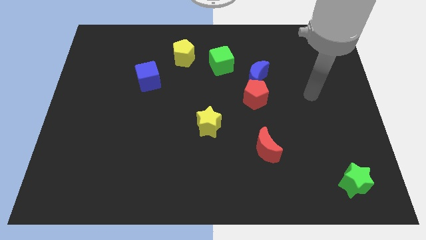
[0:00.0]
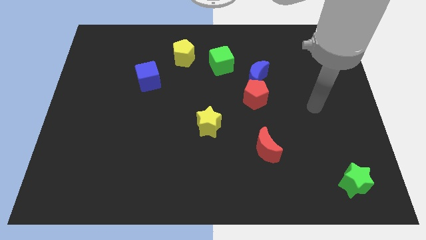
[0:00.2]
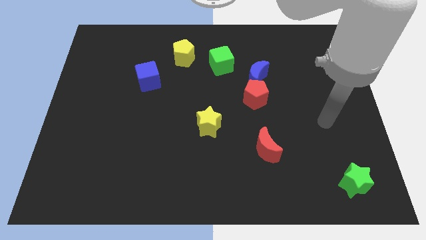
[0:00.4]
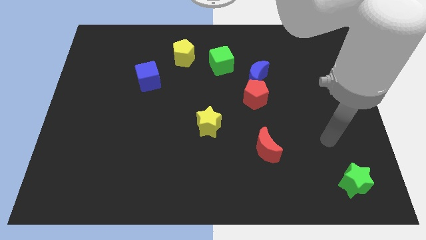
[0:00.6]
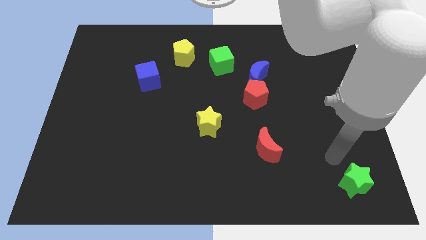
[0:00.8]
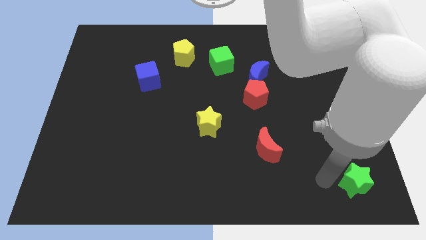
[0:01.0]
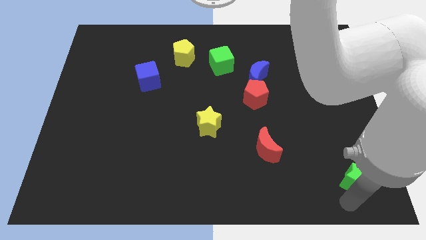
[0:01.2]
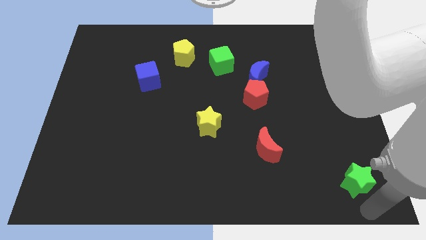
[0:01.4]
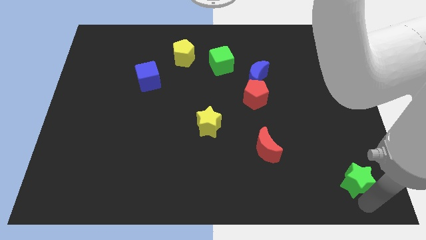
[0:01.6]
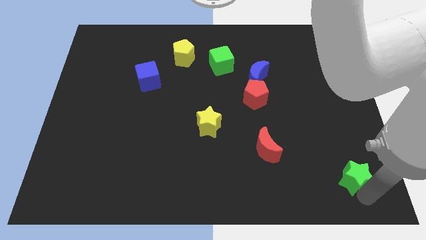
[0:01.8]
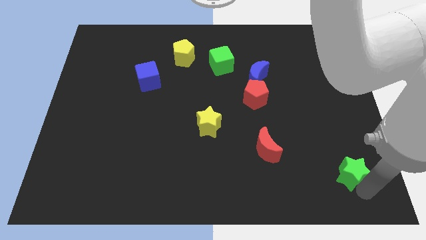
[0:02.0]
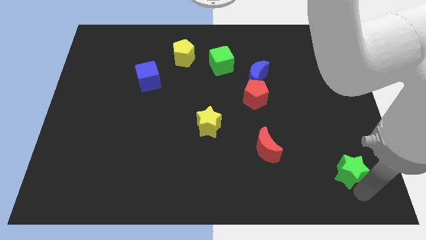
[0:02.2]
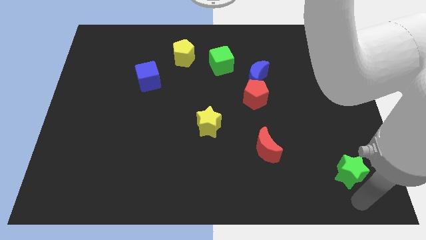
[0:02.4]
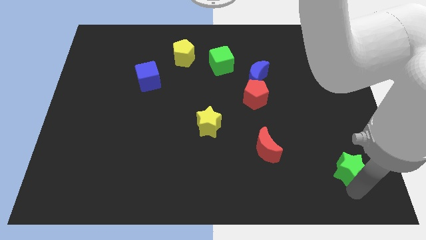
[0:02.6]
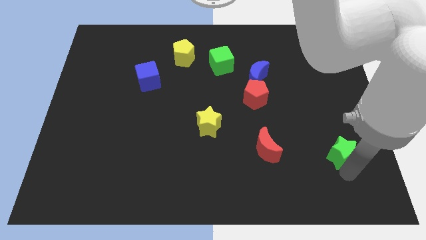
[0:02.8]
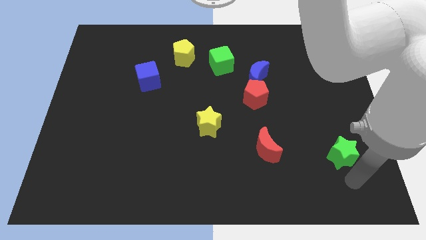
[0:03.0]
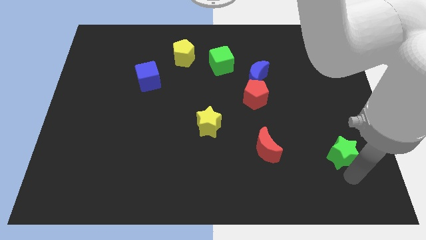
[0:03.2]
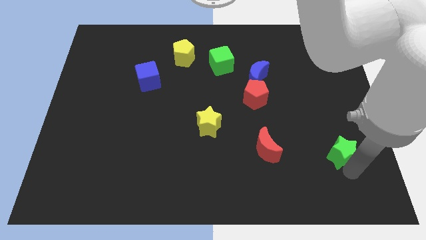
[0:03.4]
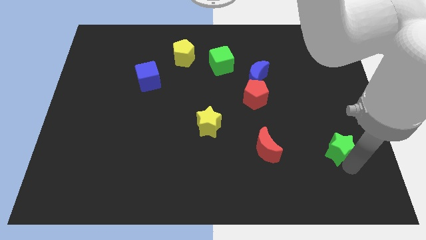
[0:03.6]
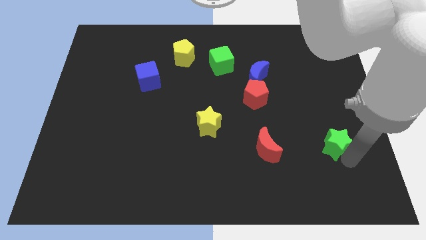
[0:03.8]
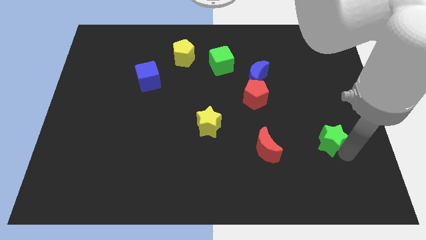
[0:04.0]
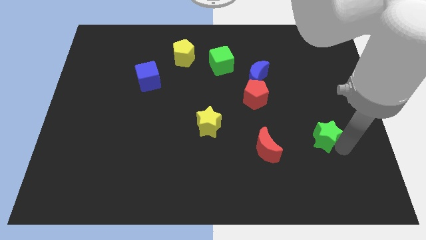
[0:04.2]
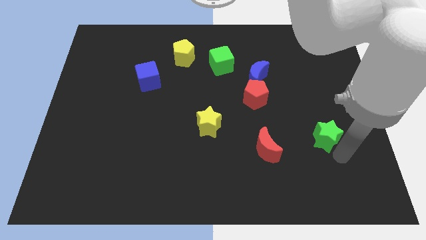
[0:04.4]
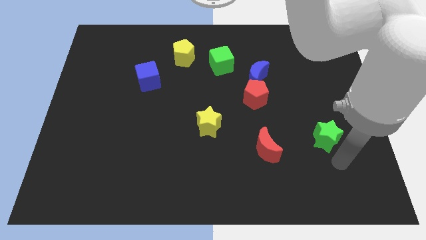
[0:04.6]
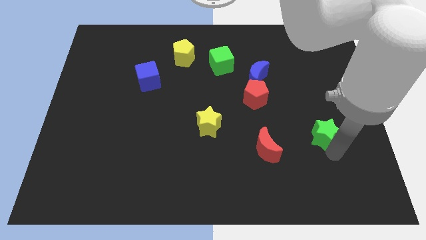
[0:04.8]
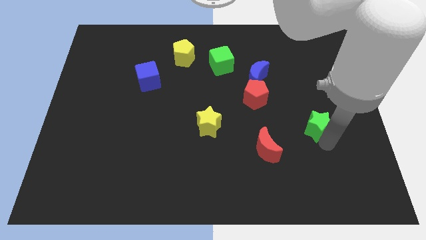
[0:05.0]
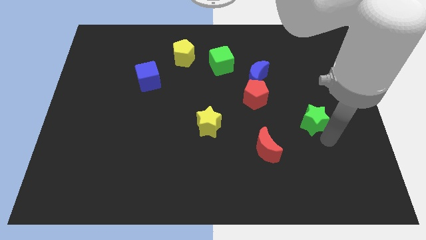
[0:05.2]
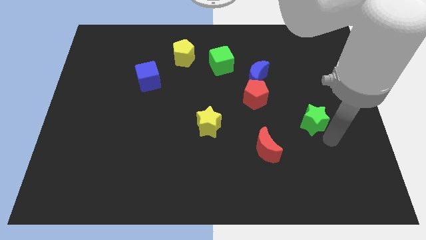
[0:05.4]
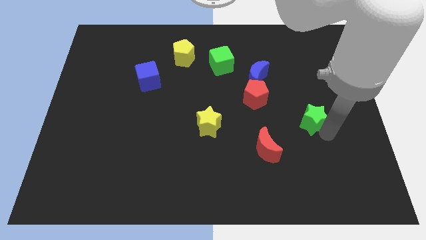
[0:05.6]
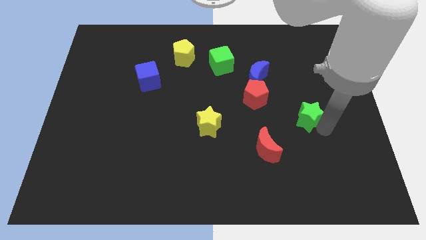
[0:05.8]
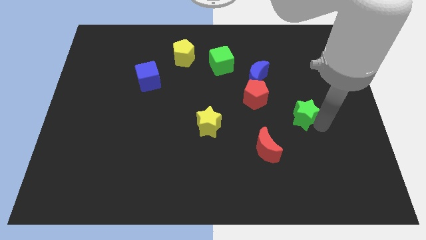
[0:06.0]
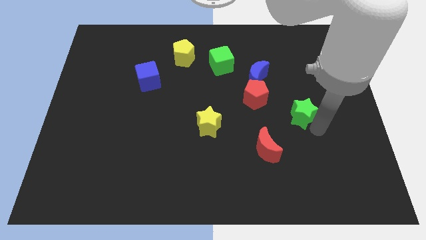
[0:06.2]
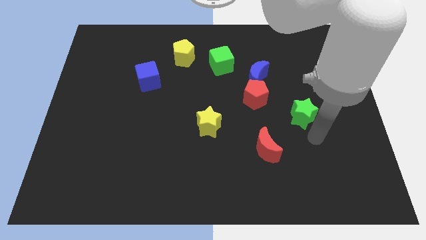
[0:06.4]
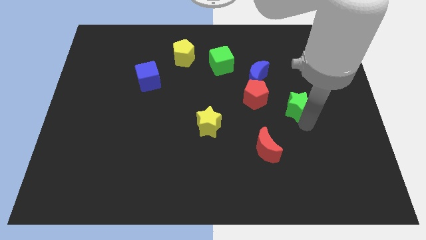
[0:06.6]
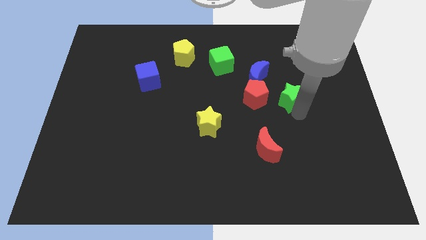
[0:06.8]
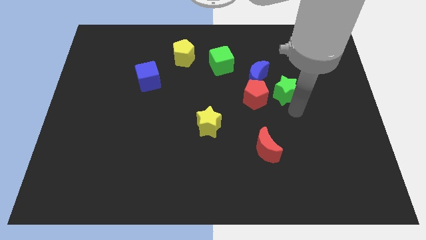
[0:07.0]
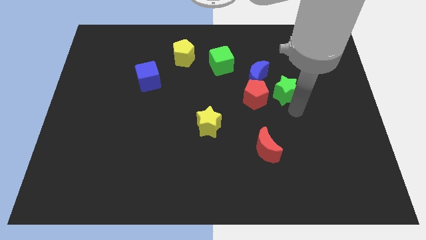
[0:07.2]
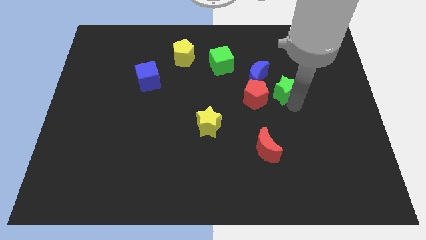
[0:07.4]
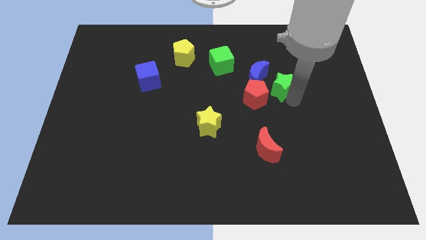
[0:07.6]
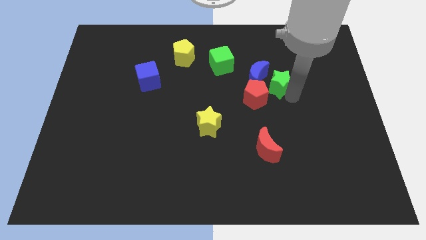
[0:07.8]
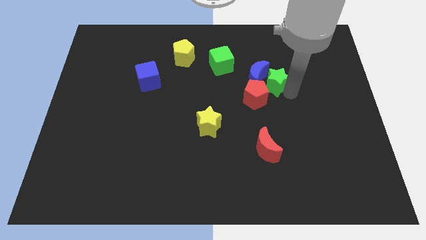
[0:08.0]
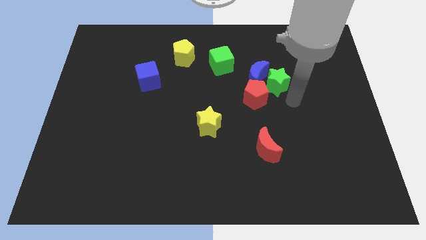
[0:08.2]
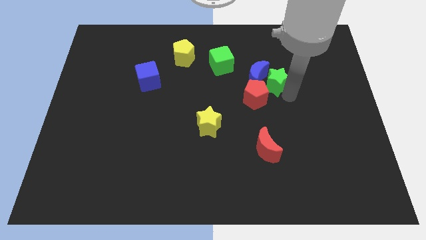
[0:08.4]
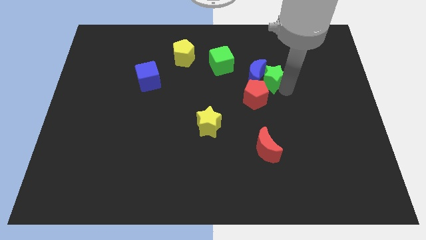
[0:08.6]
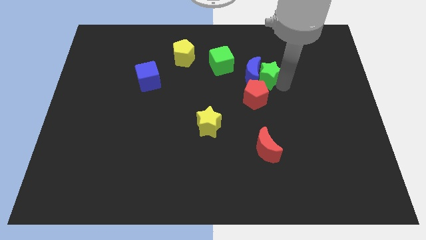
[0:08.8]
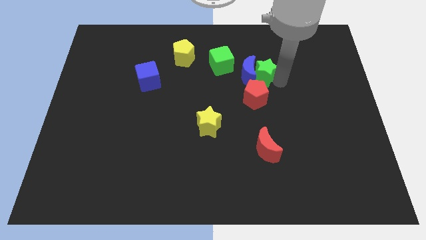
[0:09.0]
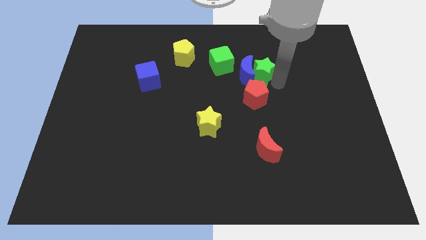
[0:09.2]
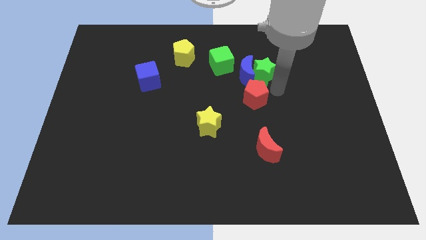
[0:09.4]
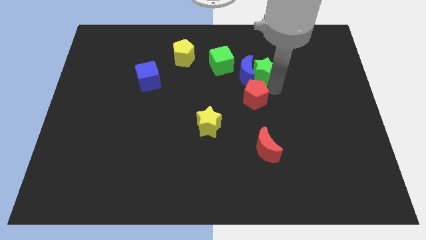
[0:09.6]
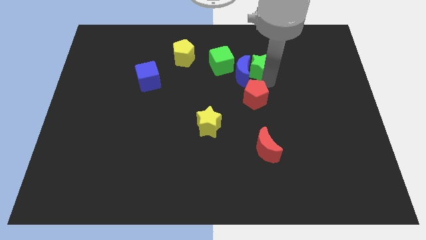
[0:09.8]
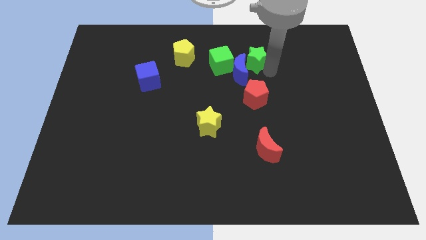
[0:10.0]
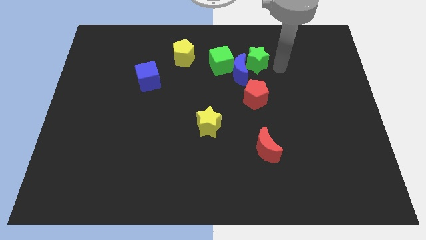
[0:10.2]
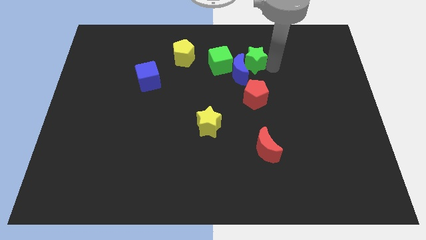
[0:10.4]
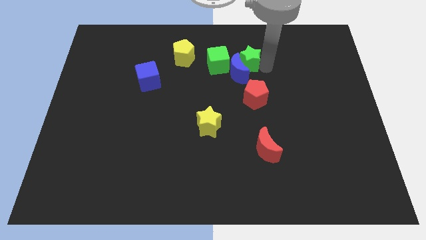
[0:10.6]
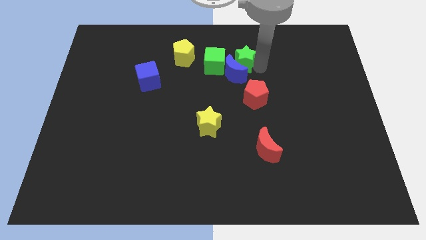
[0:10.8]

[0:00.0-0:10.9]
put the green star to the right side of the yellow pentagon

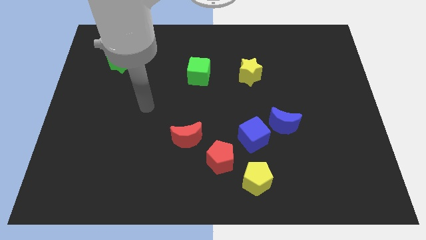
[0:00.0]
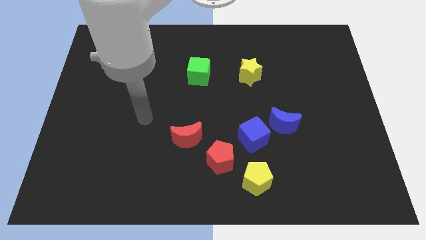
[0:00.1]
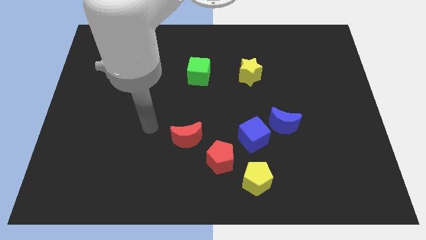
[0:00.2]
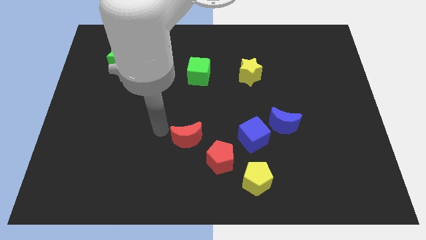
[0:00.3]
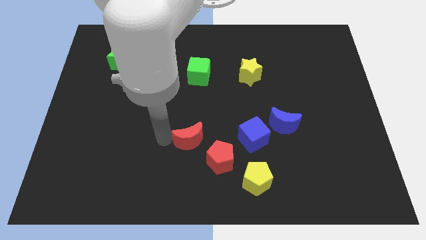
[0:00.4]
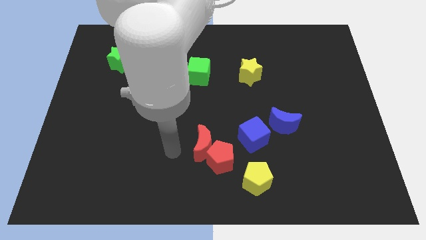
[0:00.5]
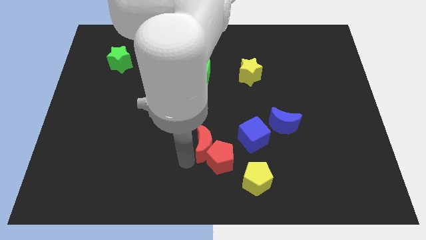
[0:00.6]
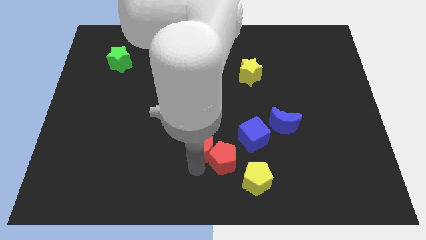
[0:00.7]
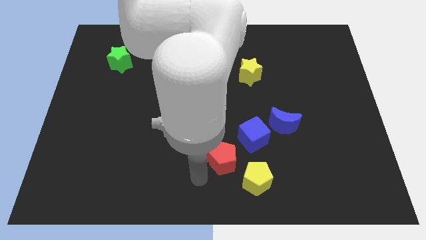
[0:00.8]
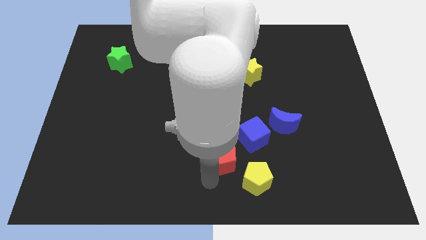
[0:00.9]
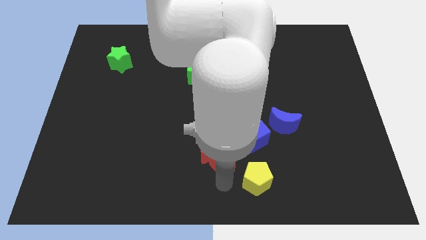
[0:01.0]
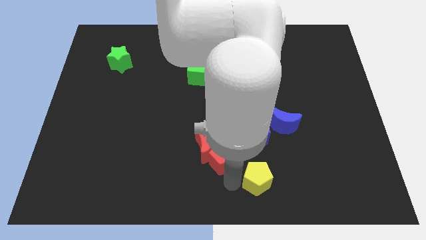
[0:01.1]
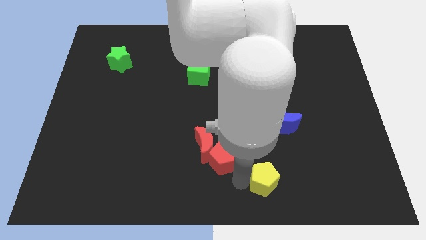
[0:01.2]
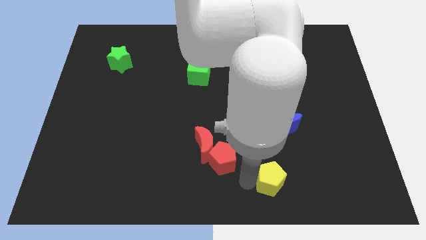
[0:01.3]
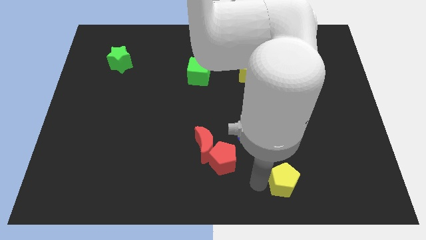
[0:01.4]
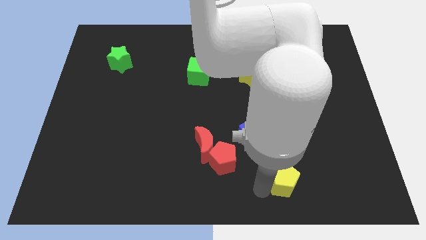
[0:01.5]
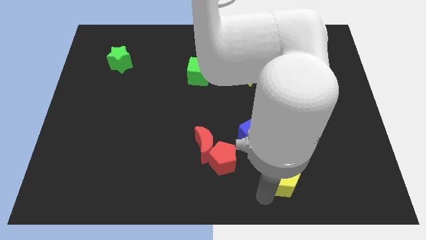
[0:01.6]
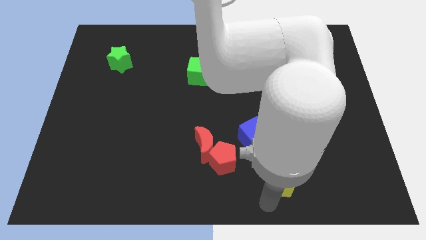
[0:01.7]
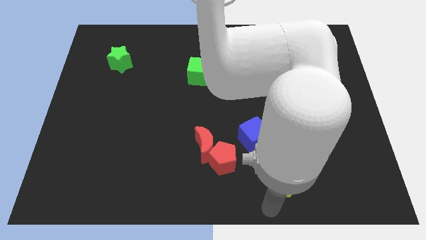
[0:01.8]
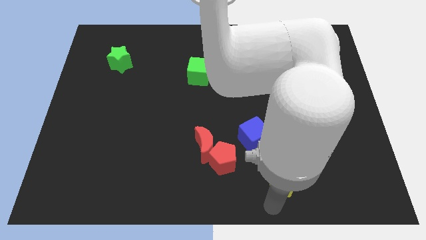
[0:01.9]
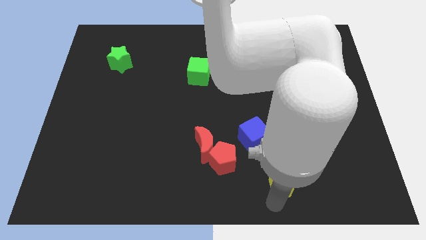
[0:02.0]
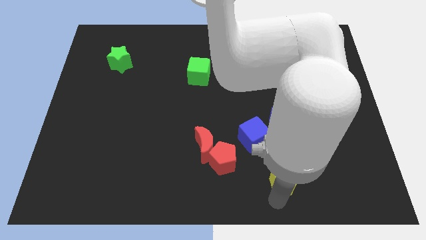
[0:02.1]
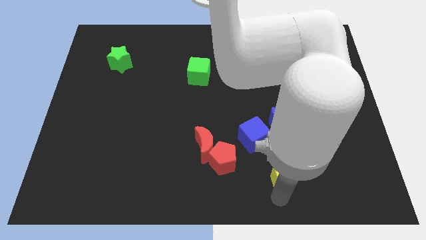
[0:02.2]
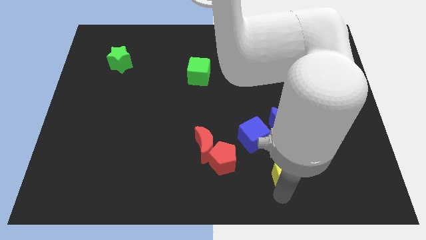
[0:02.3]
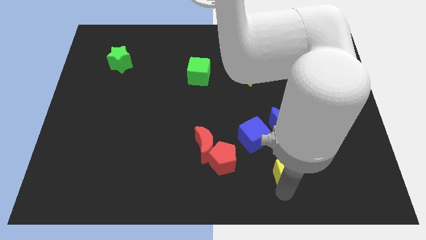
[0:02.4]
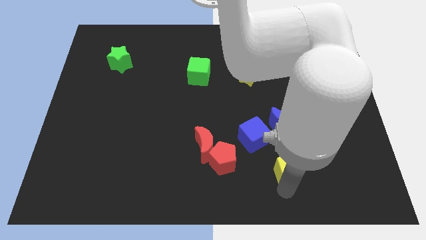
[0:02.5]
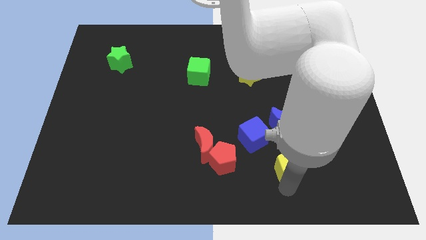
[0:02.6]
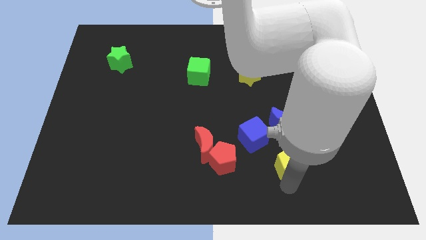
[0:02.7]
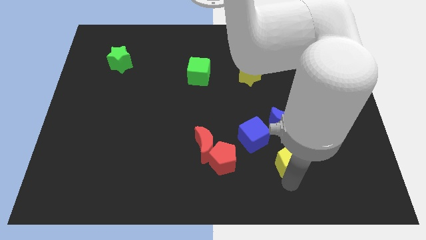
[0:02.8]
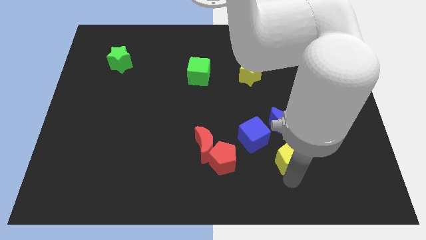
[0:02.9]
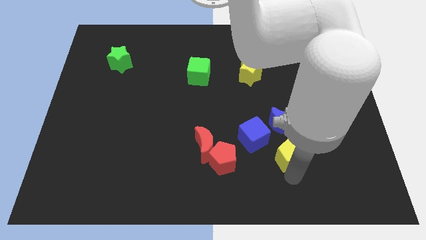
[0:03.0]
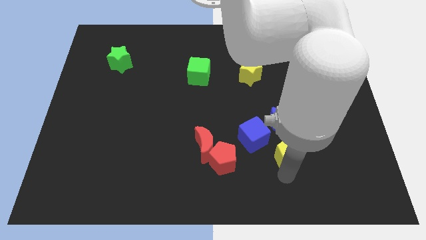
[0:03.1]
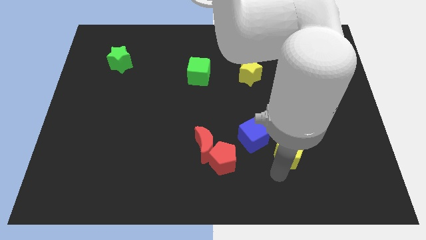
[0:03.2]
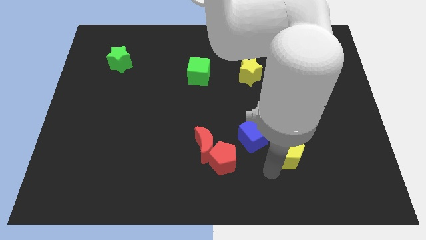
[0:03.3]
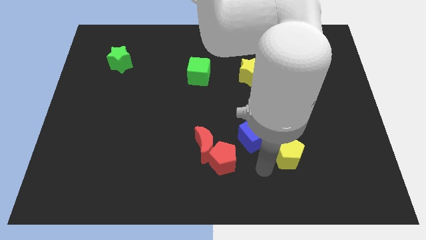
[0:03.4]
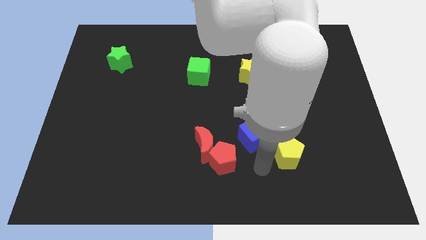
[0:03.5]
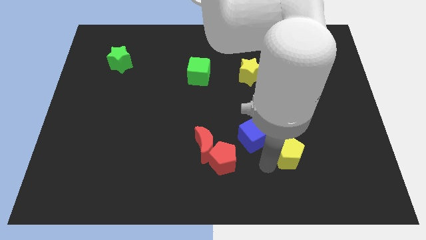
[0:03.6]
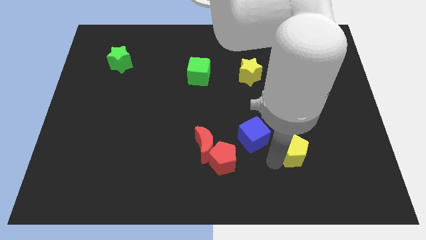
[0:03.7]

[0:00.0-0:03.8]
slide the yellow pentagon diagonally down and to the right of the blue moon
